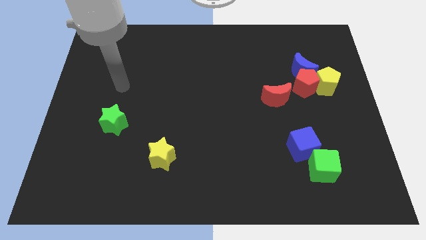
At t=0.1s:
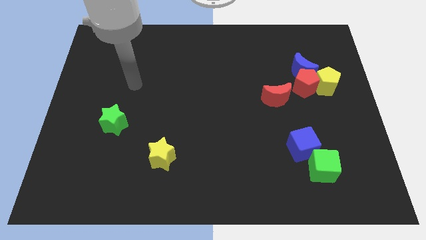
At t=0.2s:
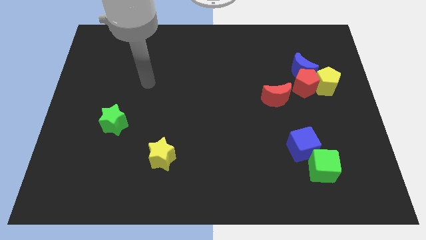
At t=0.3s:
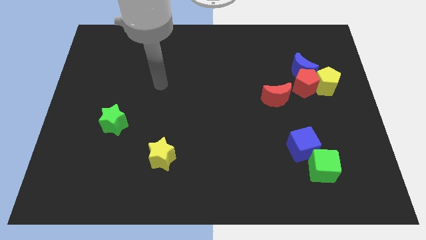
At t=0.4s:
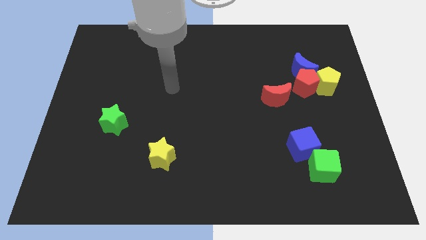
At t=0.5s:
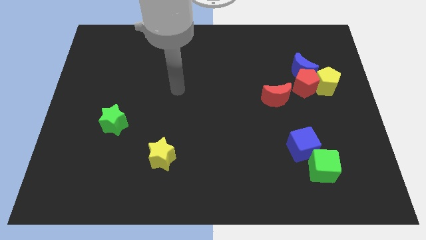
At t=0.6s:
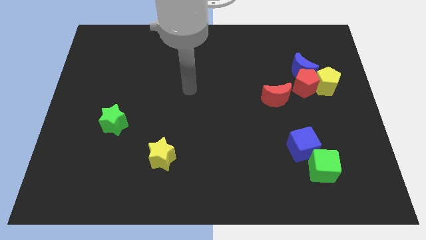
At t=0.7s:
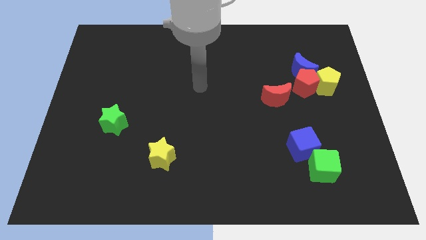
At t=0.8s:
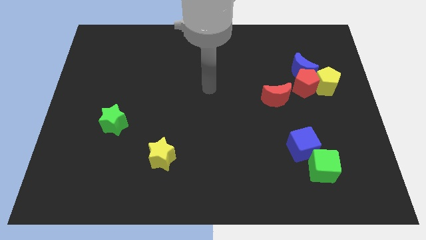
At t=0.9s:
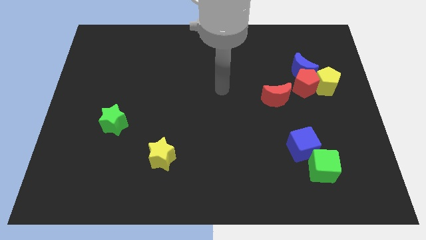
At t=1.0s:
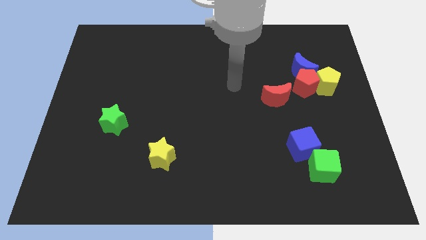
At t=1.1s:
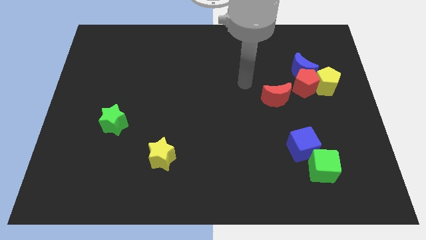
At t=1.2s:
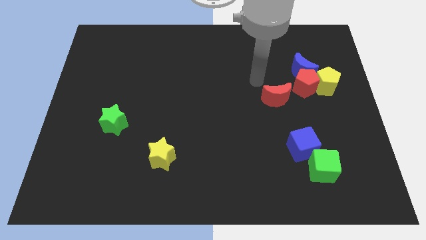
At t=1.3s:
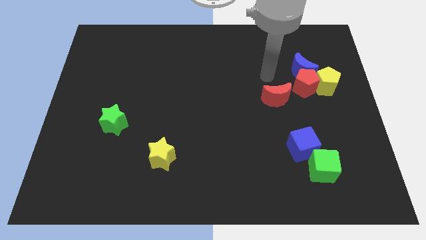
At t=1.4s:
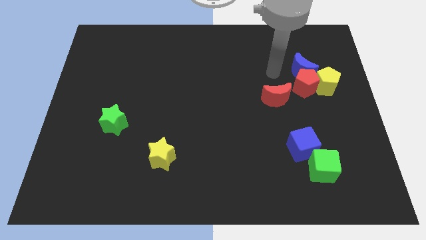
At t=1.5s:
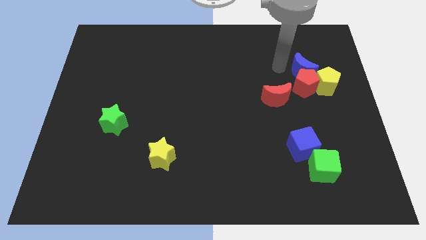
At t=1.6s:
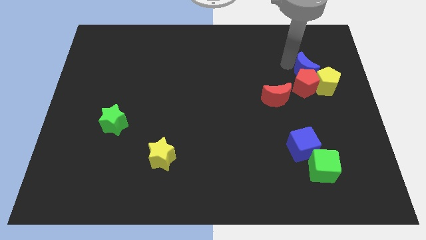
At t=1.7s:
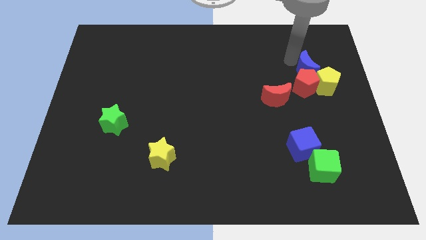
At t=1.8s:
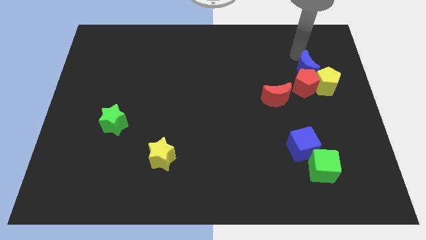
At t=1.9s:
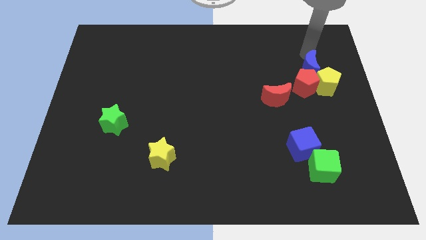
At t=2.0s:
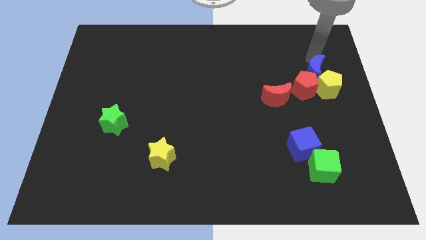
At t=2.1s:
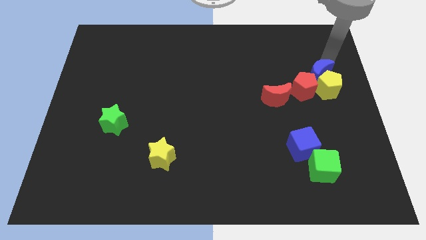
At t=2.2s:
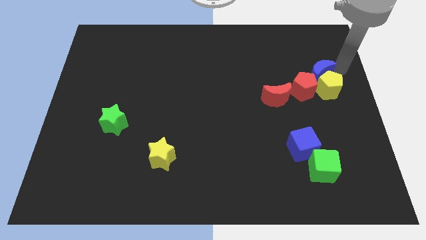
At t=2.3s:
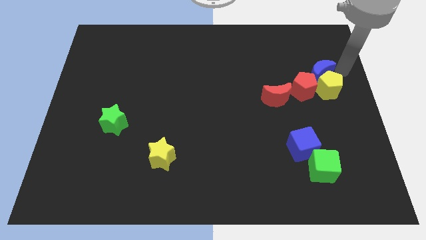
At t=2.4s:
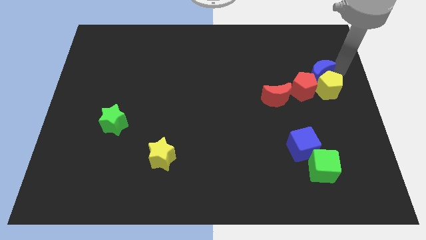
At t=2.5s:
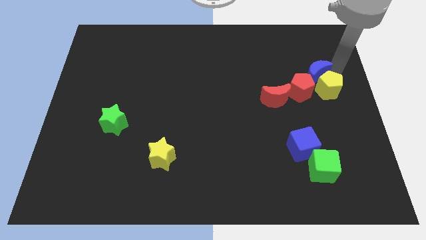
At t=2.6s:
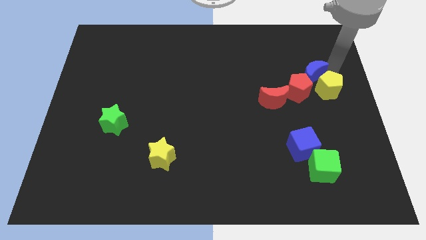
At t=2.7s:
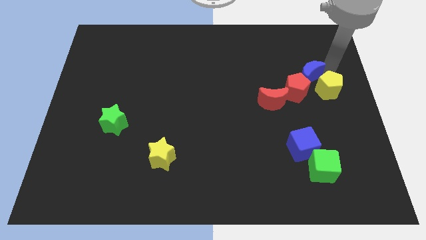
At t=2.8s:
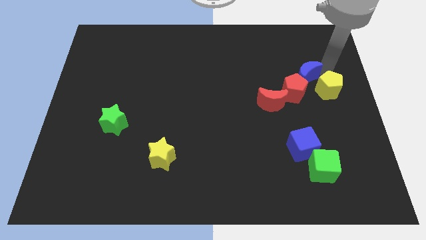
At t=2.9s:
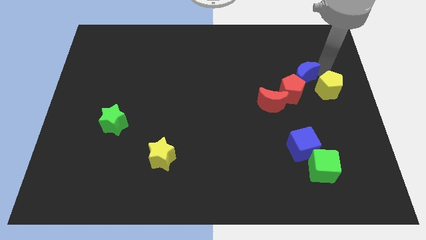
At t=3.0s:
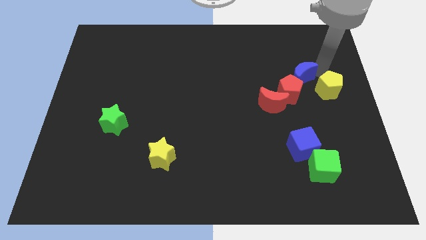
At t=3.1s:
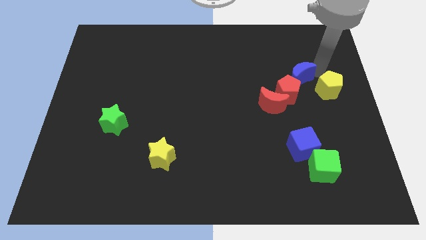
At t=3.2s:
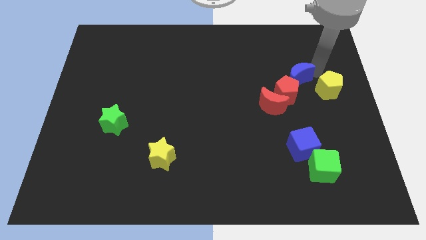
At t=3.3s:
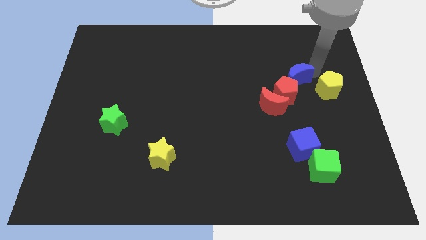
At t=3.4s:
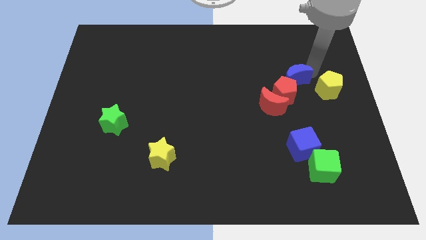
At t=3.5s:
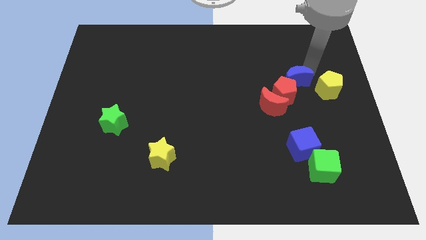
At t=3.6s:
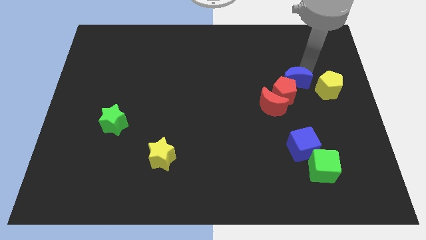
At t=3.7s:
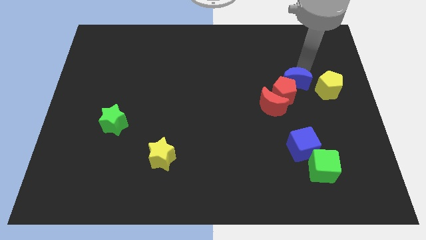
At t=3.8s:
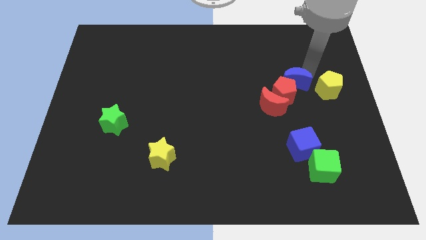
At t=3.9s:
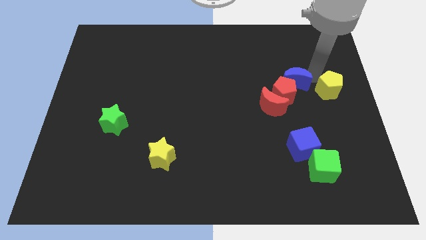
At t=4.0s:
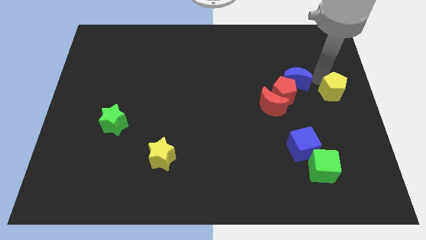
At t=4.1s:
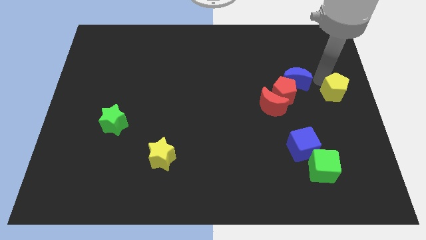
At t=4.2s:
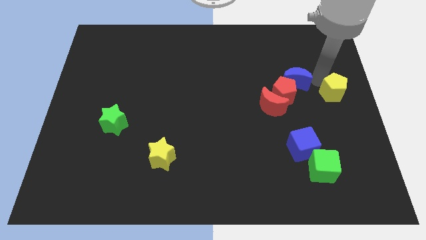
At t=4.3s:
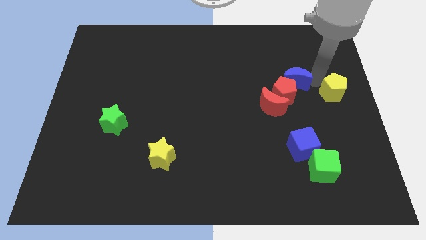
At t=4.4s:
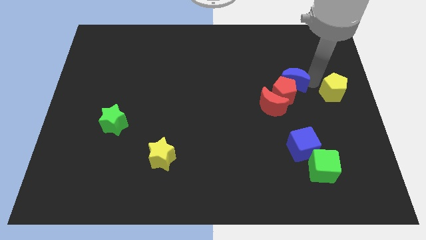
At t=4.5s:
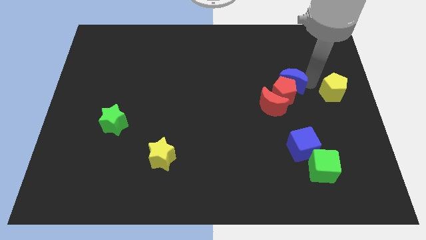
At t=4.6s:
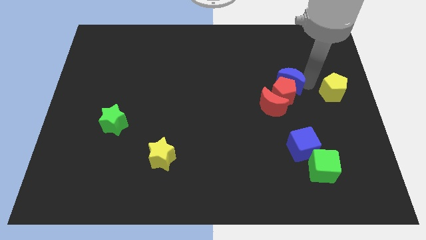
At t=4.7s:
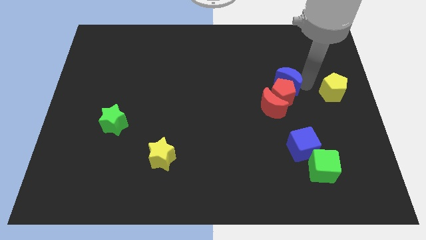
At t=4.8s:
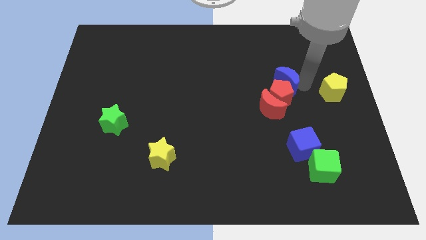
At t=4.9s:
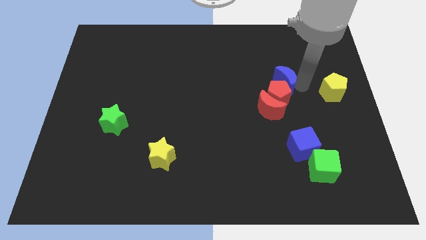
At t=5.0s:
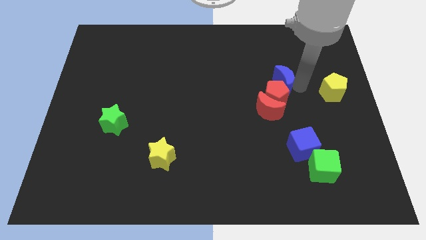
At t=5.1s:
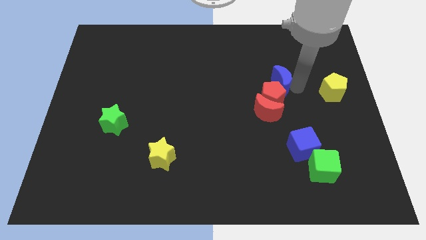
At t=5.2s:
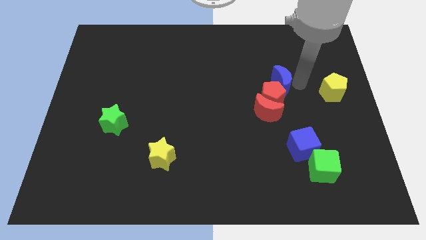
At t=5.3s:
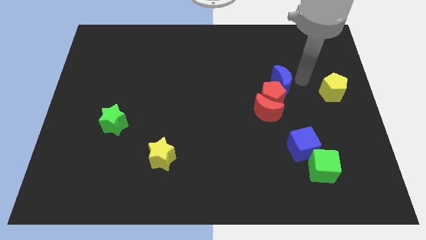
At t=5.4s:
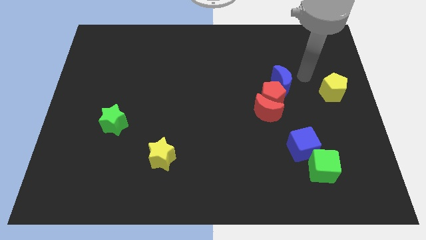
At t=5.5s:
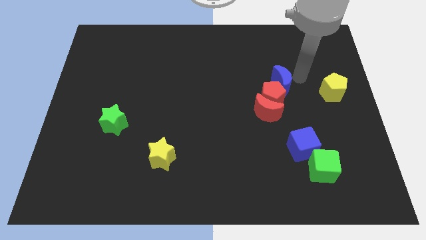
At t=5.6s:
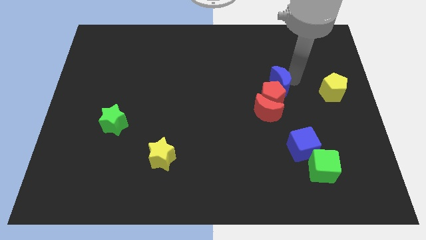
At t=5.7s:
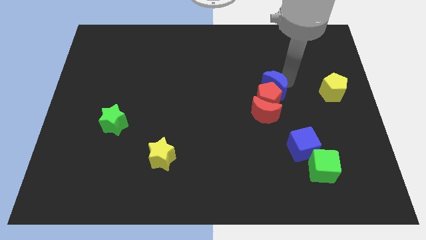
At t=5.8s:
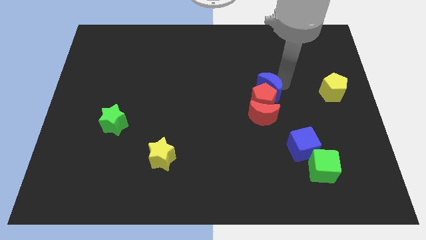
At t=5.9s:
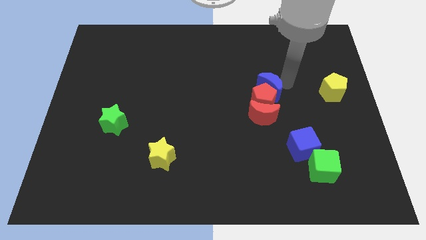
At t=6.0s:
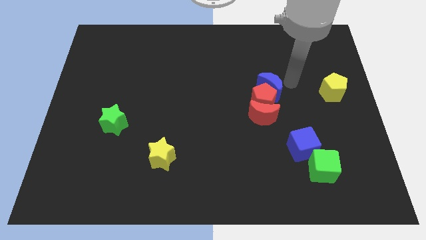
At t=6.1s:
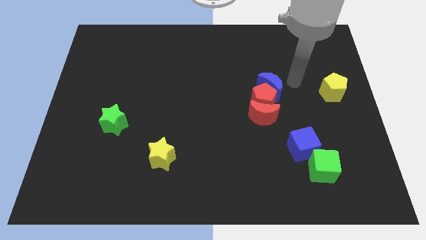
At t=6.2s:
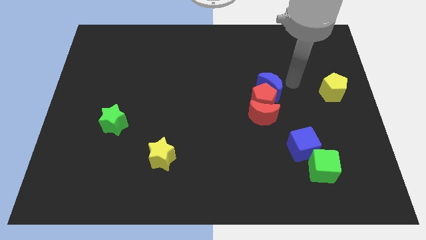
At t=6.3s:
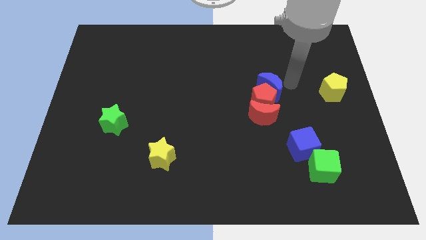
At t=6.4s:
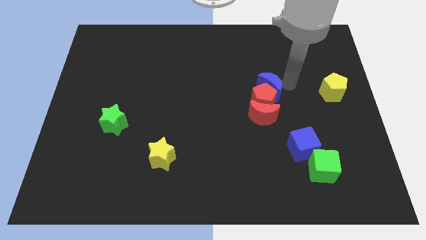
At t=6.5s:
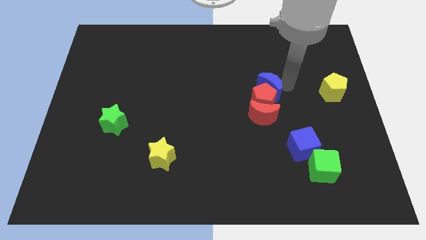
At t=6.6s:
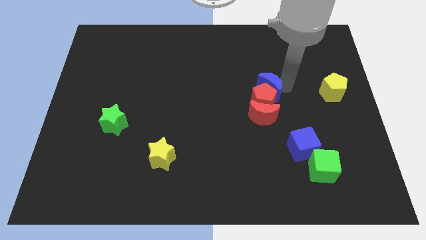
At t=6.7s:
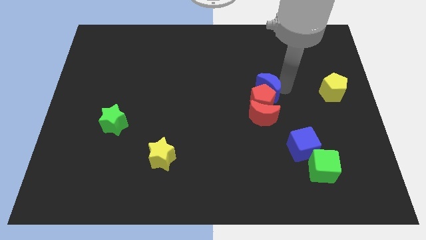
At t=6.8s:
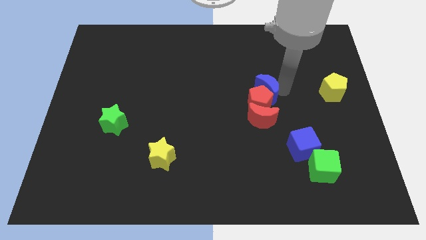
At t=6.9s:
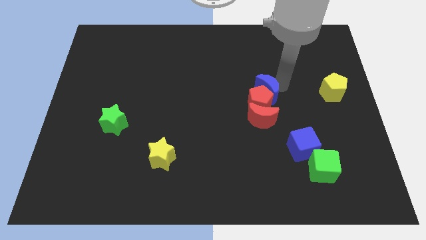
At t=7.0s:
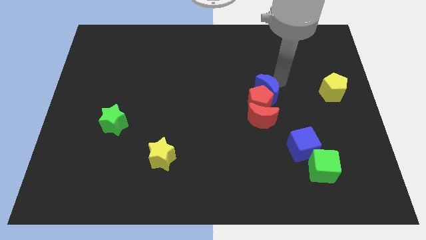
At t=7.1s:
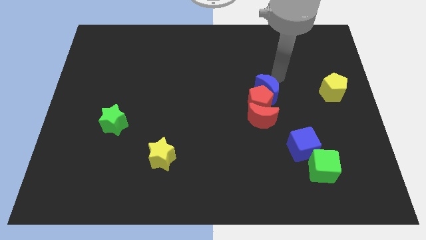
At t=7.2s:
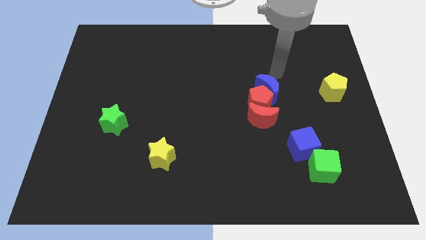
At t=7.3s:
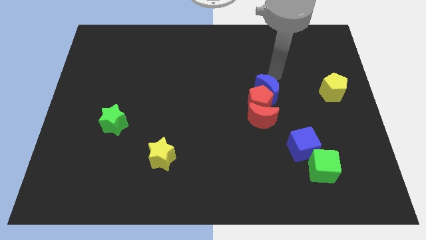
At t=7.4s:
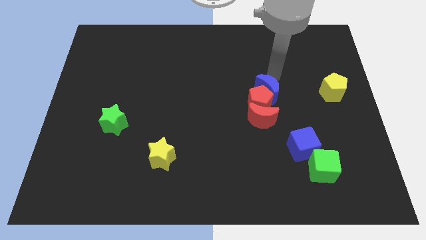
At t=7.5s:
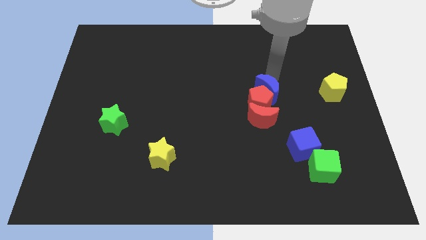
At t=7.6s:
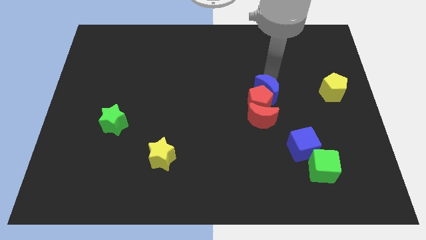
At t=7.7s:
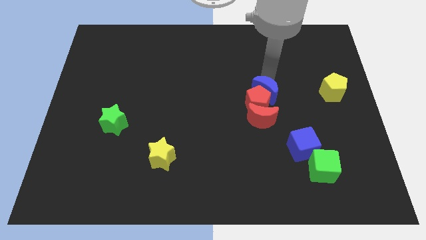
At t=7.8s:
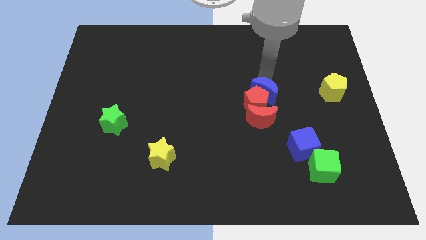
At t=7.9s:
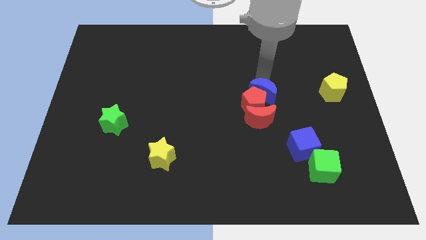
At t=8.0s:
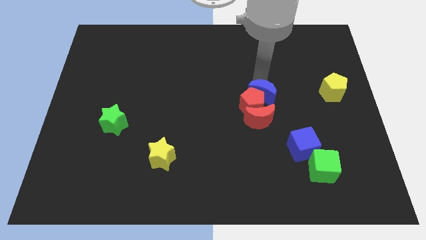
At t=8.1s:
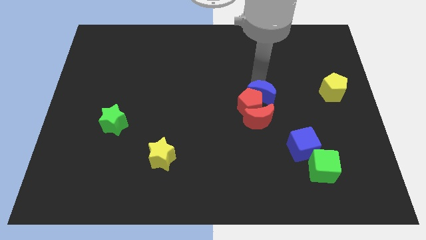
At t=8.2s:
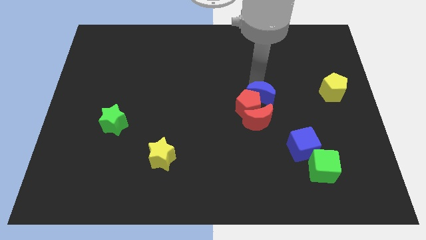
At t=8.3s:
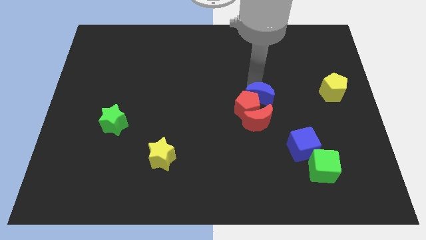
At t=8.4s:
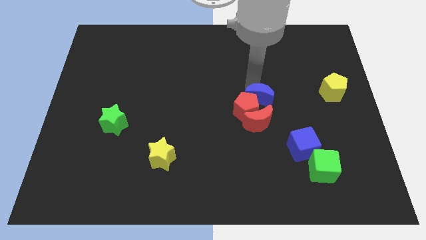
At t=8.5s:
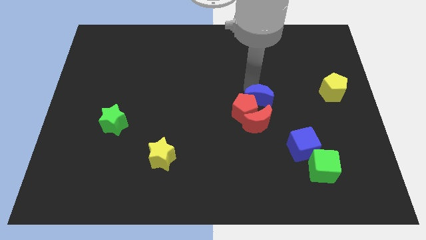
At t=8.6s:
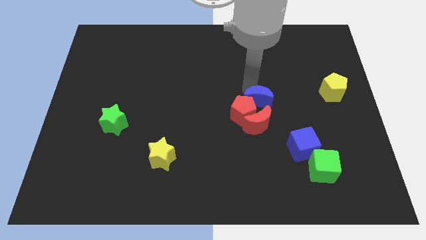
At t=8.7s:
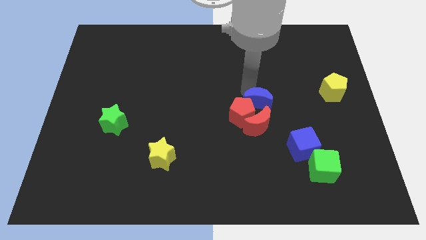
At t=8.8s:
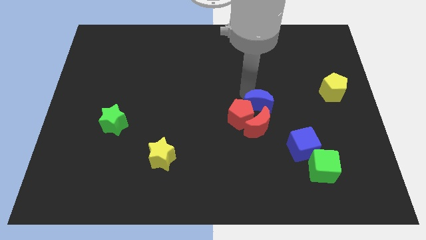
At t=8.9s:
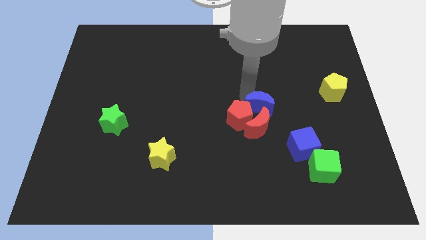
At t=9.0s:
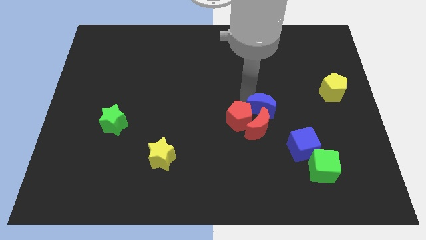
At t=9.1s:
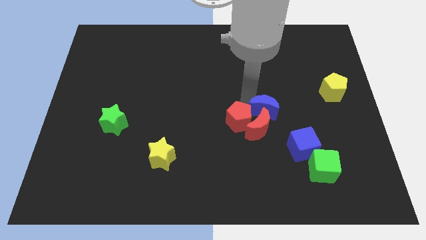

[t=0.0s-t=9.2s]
put the blue moon diagonally up and to the left of the blue cube
